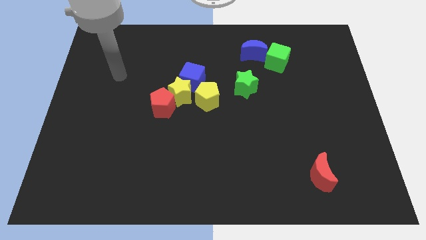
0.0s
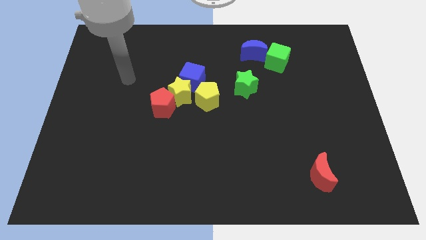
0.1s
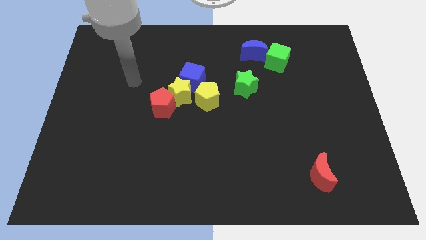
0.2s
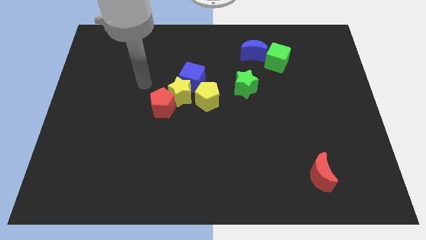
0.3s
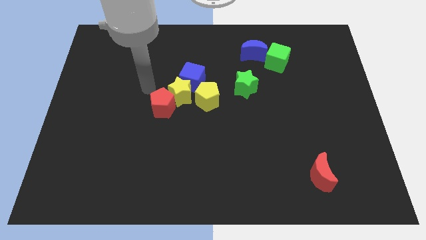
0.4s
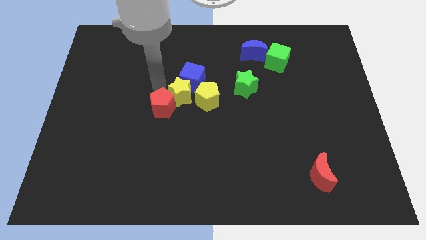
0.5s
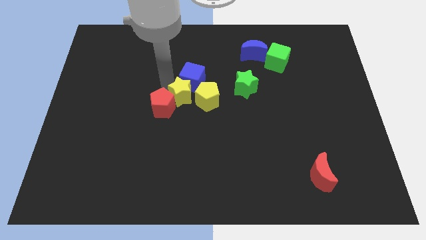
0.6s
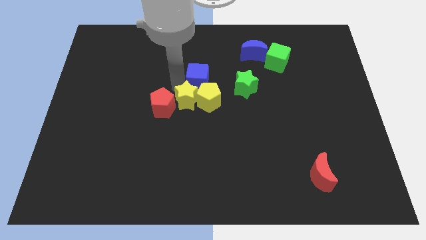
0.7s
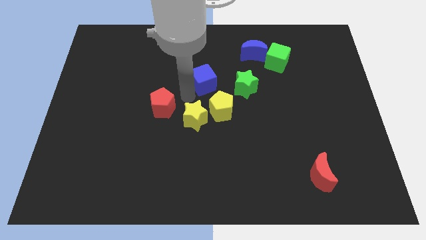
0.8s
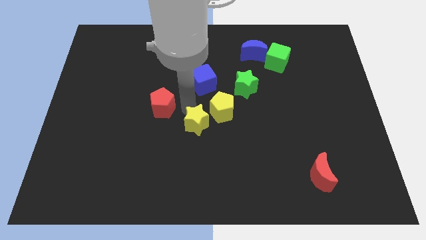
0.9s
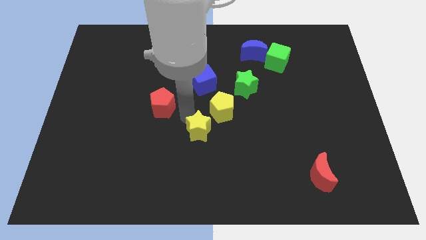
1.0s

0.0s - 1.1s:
separate the red pentagon from the yellow star

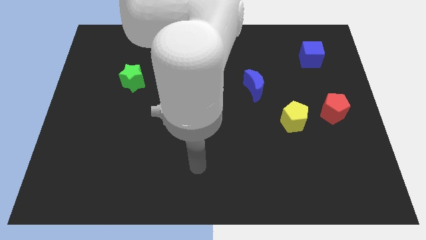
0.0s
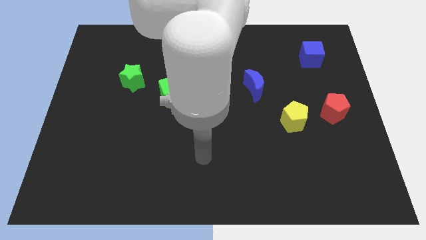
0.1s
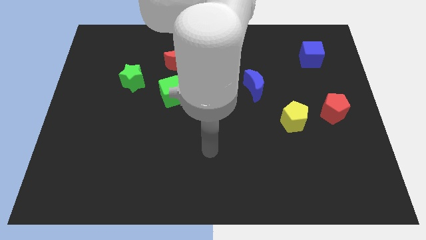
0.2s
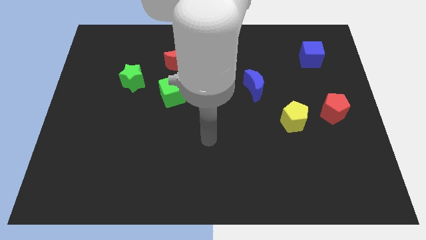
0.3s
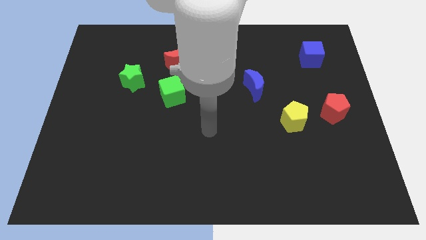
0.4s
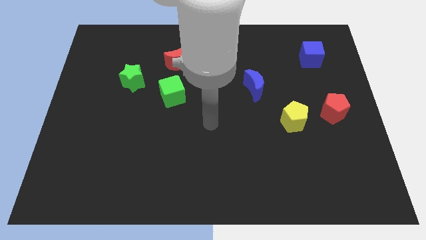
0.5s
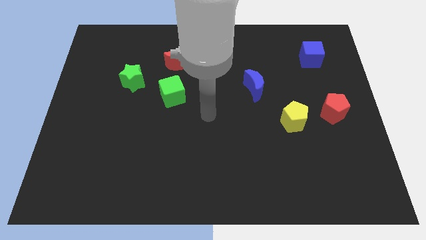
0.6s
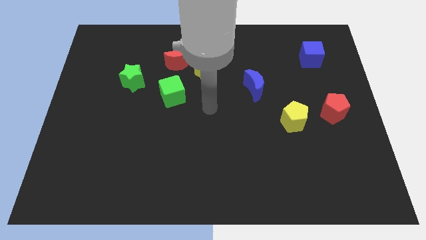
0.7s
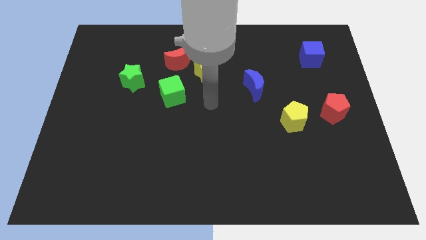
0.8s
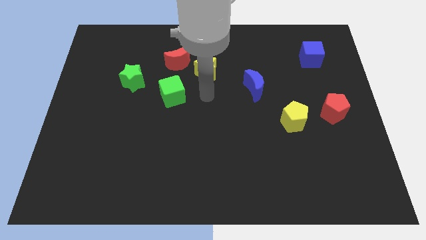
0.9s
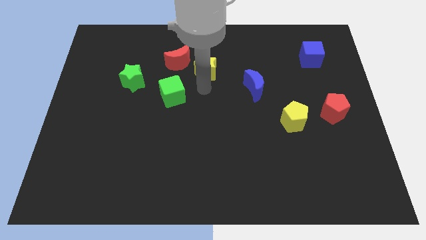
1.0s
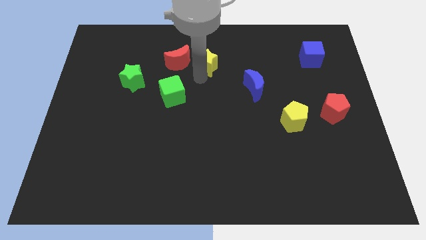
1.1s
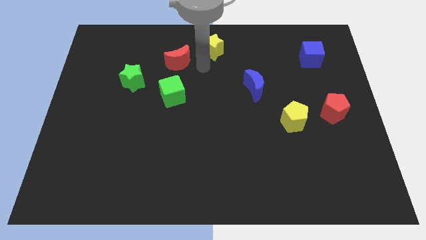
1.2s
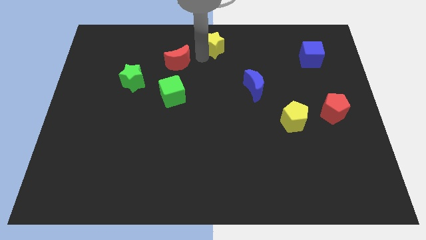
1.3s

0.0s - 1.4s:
move the red moon away from the yellow star

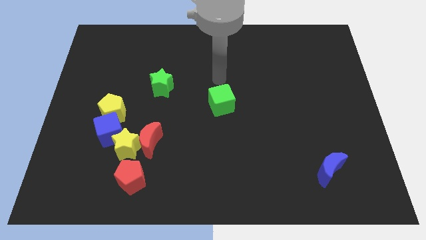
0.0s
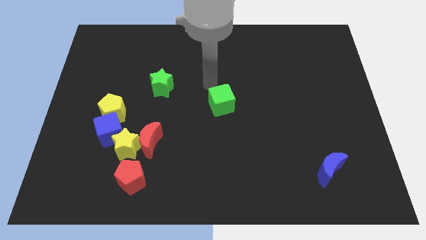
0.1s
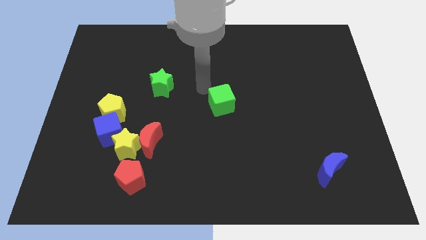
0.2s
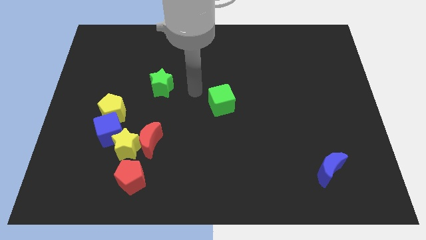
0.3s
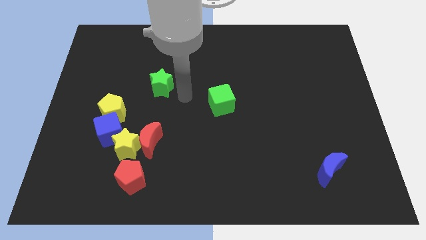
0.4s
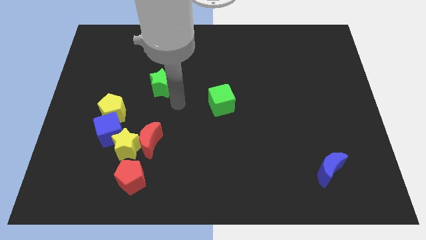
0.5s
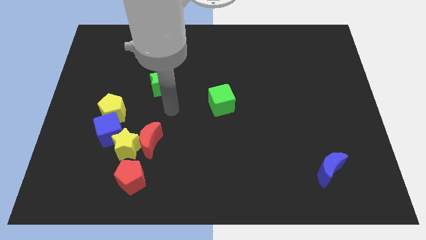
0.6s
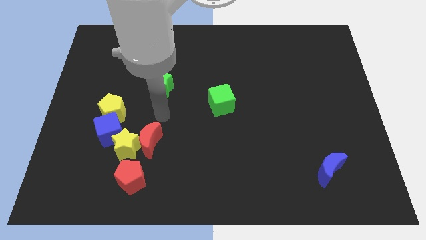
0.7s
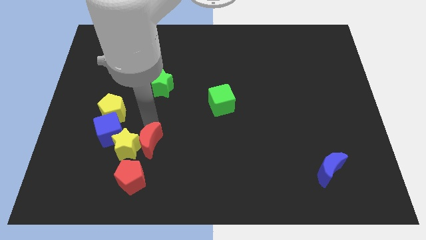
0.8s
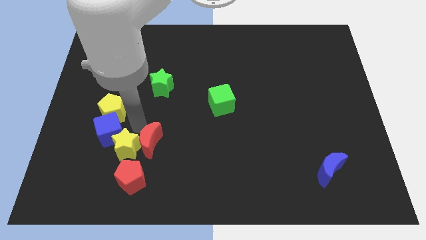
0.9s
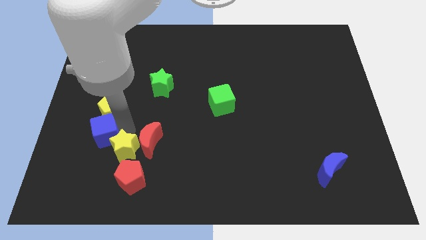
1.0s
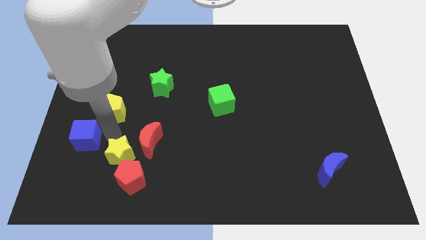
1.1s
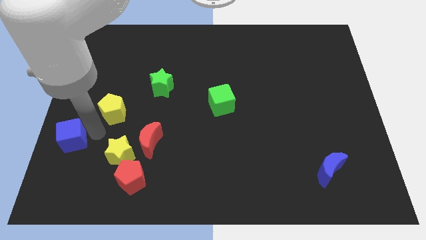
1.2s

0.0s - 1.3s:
move the yellow pentagon away from the blue cube

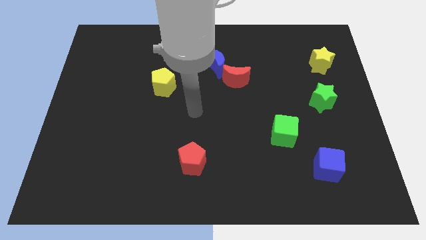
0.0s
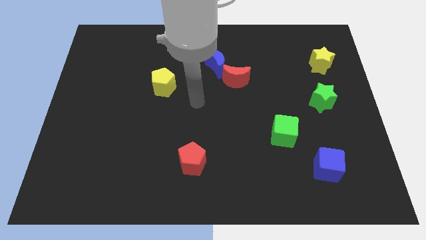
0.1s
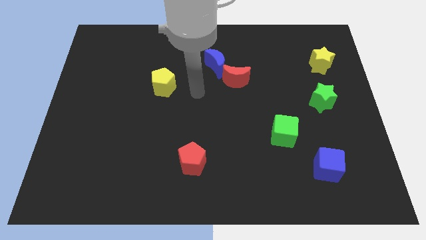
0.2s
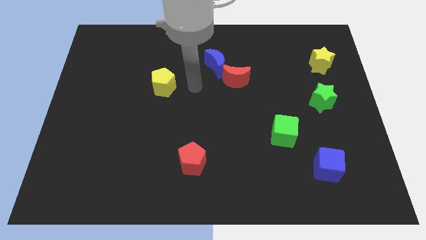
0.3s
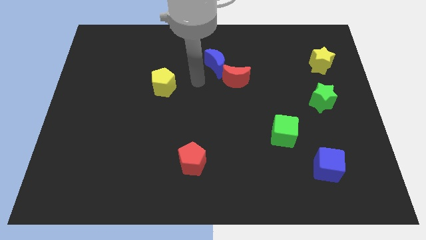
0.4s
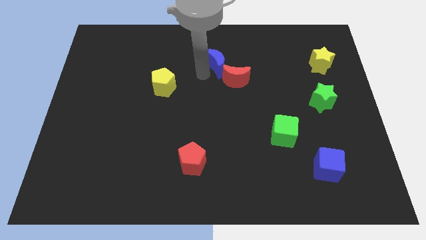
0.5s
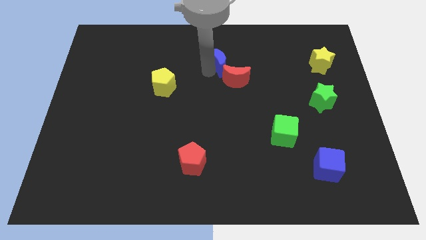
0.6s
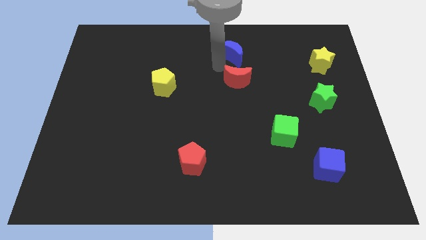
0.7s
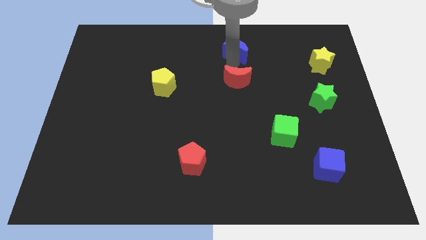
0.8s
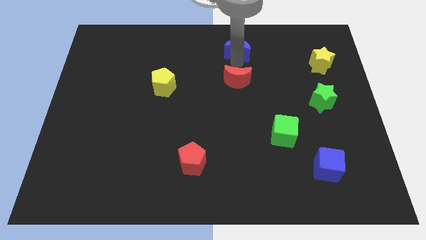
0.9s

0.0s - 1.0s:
pull the red moon apart from the blue moon

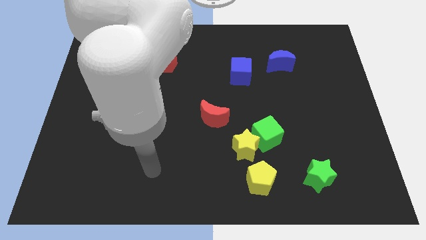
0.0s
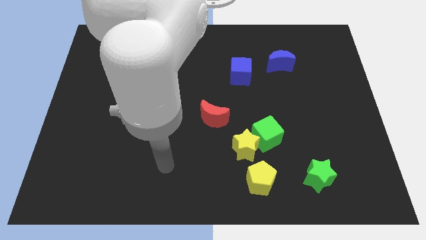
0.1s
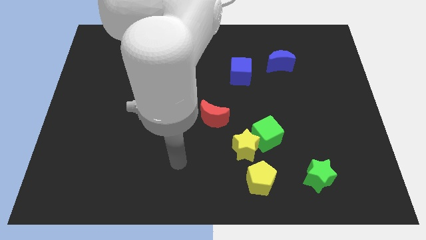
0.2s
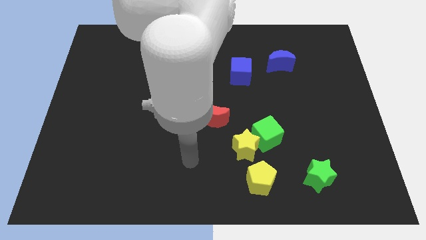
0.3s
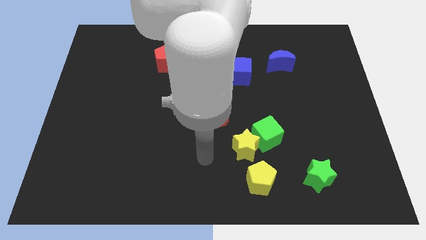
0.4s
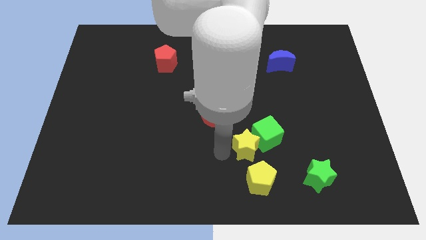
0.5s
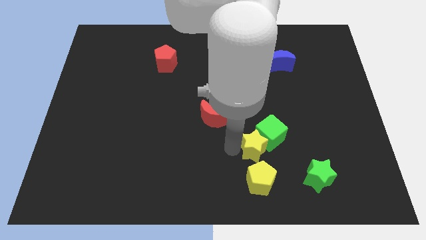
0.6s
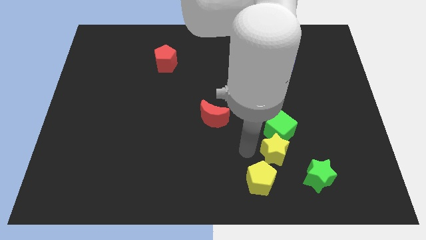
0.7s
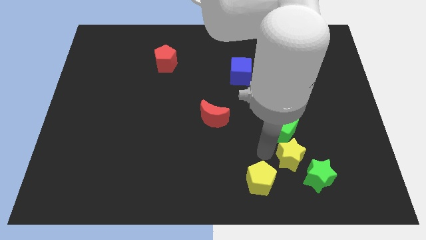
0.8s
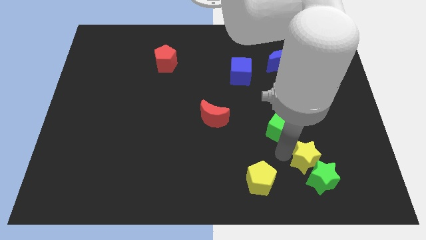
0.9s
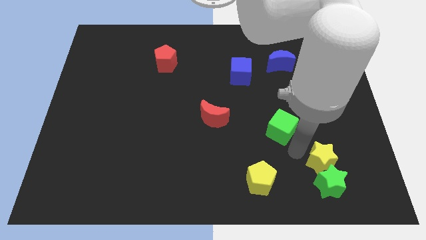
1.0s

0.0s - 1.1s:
move the green cube away from the yellow star

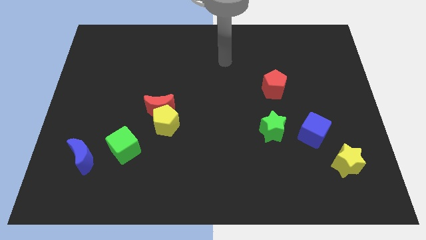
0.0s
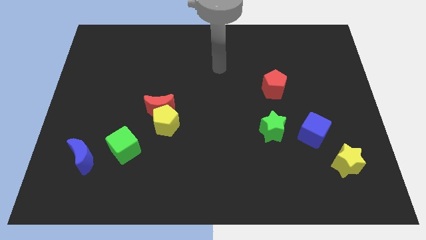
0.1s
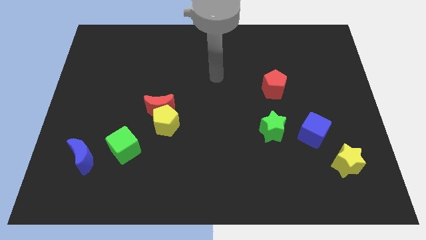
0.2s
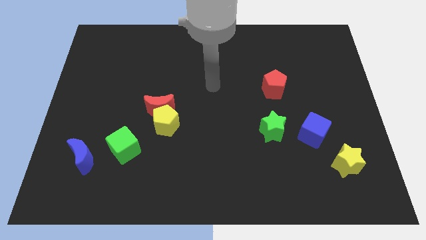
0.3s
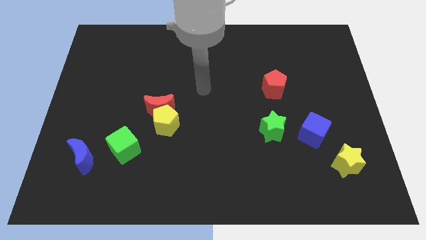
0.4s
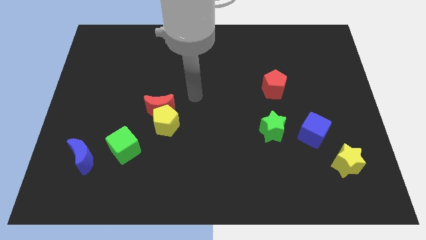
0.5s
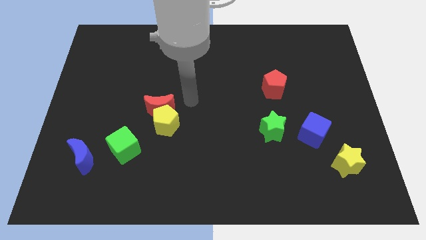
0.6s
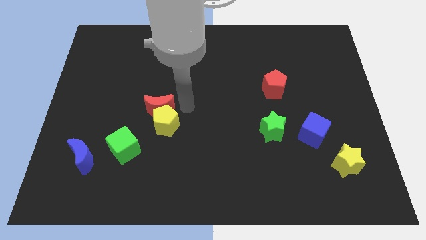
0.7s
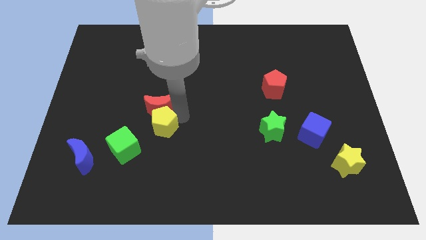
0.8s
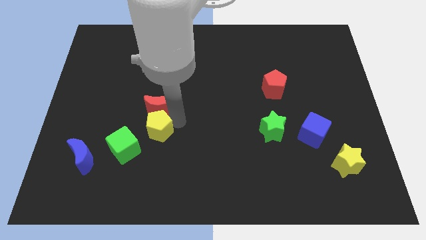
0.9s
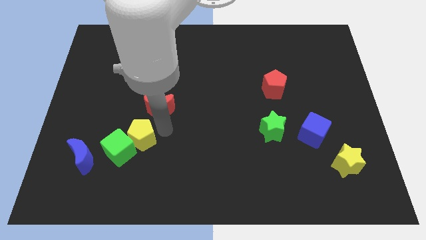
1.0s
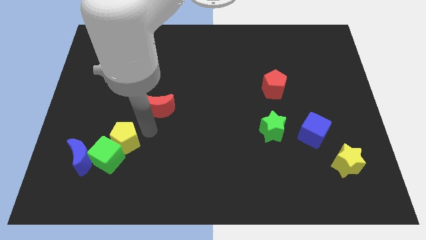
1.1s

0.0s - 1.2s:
separate the red moon from the yellow pentagon

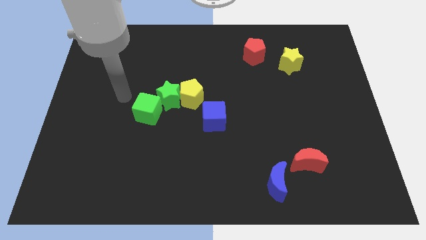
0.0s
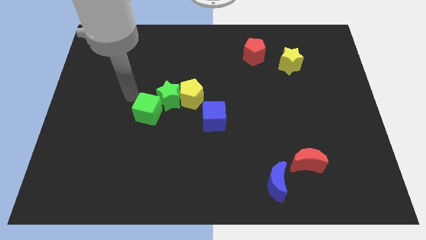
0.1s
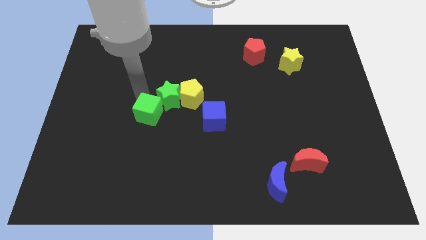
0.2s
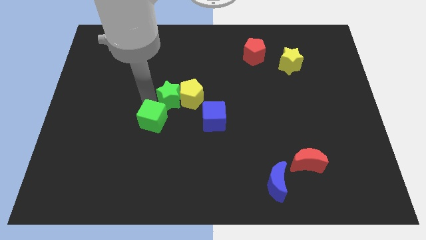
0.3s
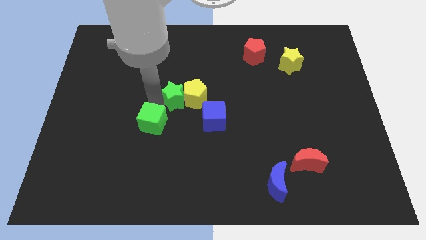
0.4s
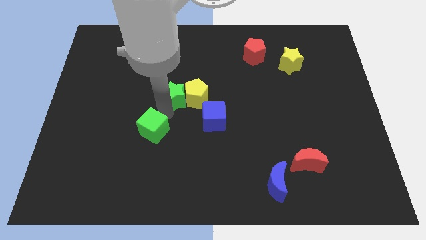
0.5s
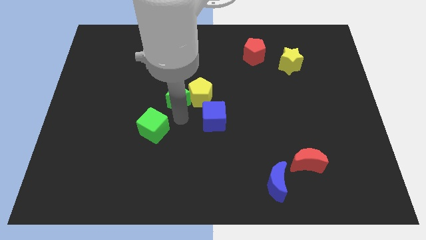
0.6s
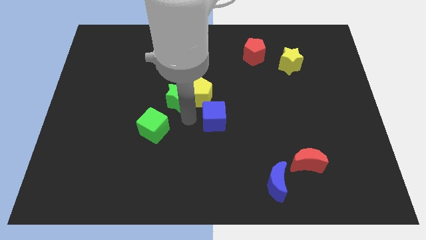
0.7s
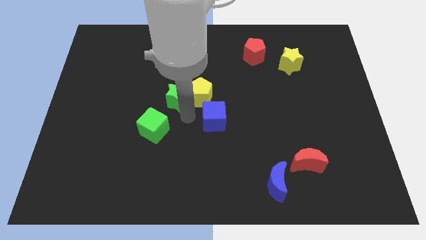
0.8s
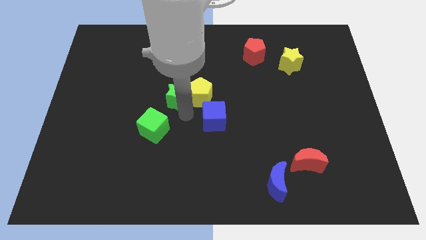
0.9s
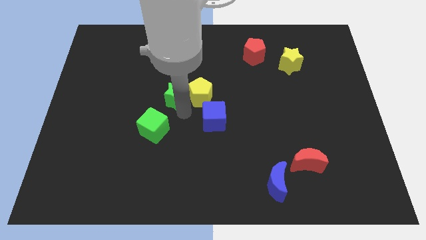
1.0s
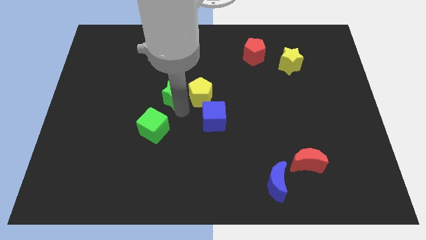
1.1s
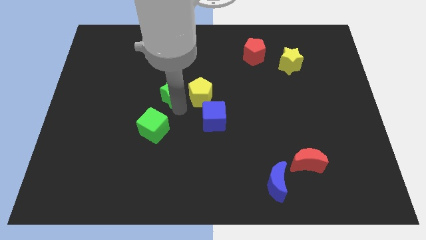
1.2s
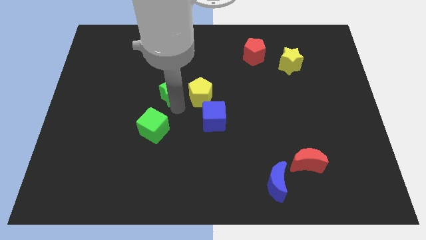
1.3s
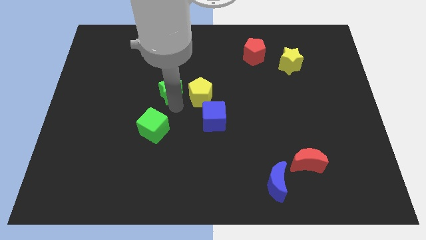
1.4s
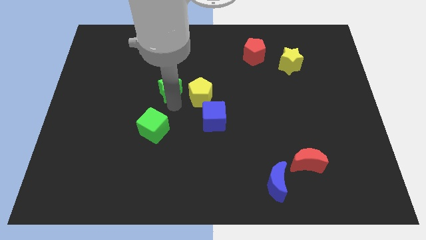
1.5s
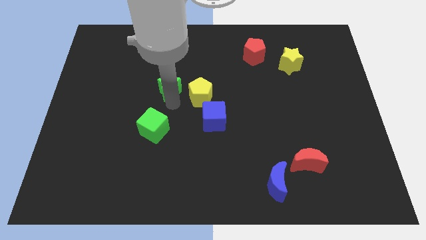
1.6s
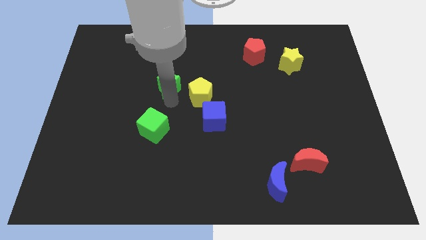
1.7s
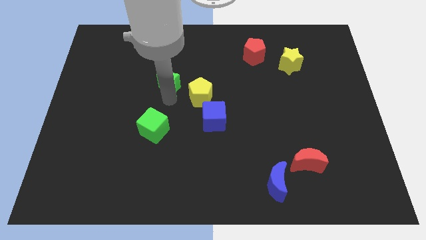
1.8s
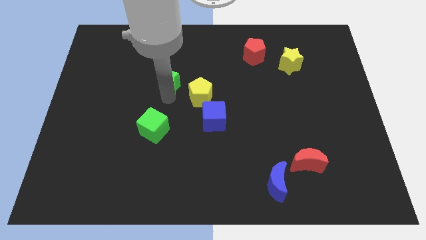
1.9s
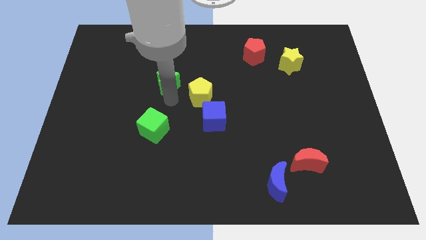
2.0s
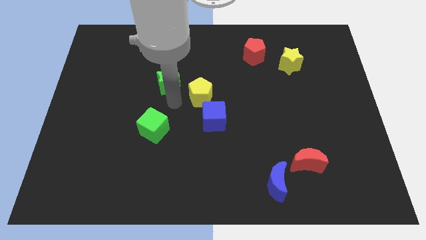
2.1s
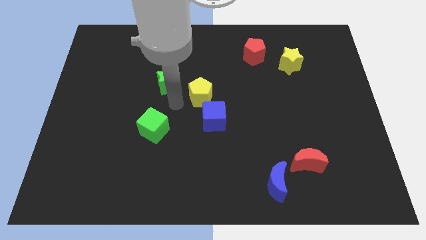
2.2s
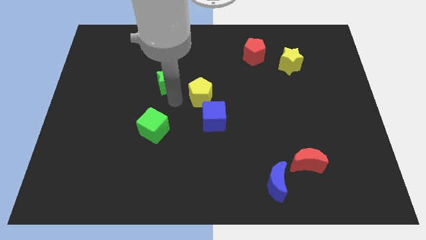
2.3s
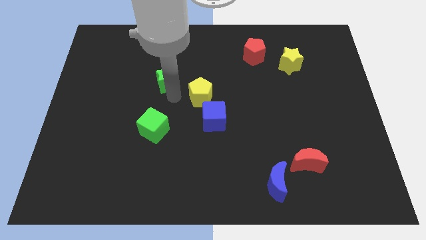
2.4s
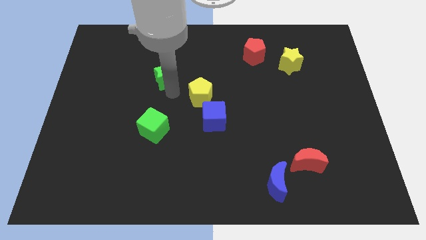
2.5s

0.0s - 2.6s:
pull the green star apart from the yellow pentagon and green cube
